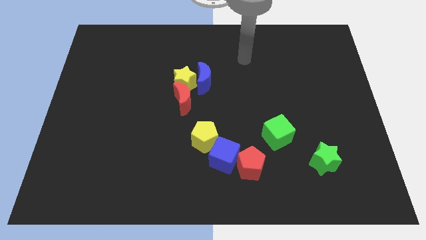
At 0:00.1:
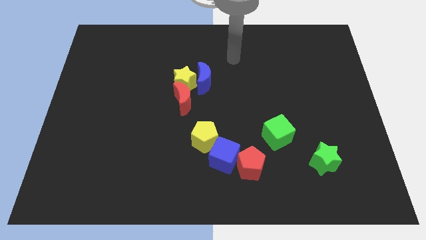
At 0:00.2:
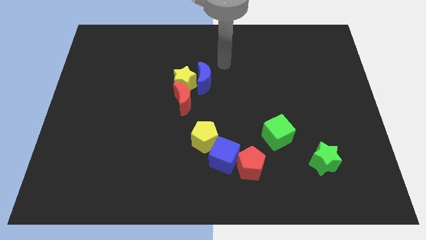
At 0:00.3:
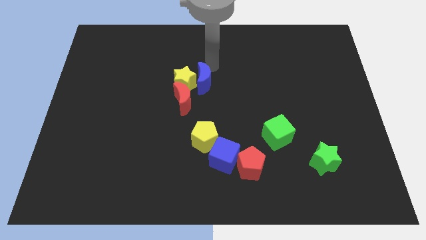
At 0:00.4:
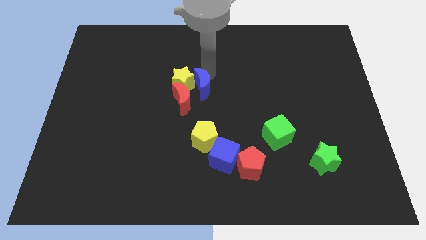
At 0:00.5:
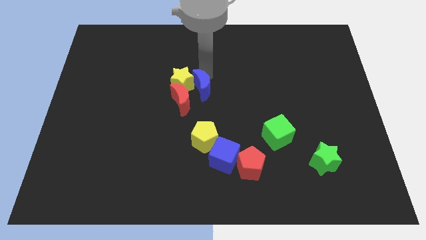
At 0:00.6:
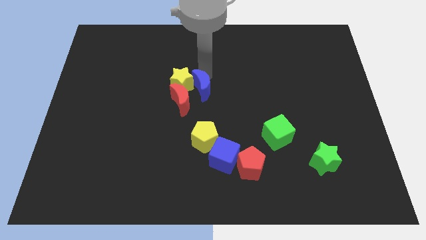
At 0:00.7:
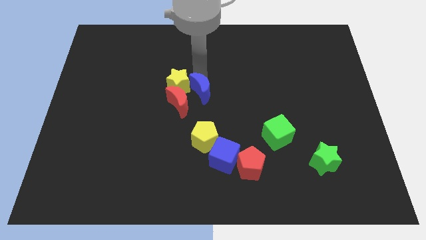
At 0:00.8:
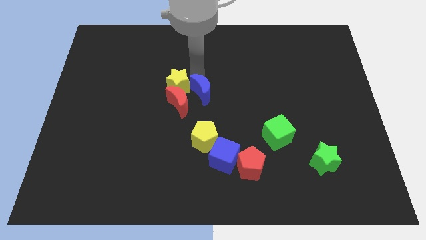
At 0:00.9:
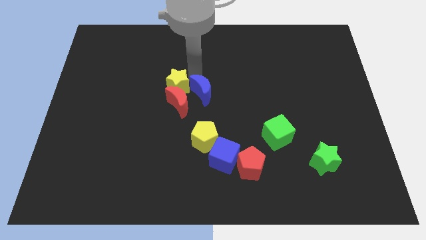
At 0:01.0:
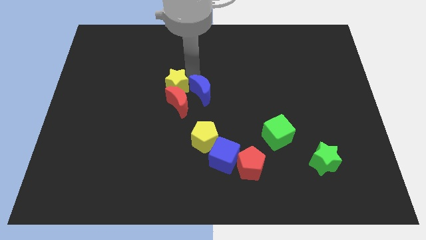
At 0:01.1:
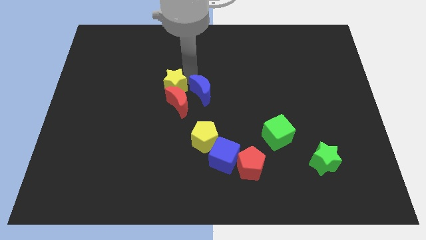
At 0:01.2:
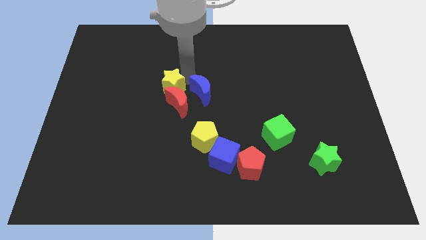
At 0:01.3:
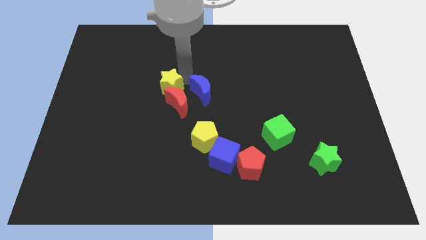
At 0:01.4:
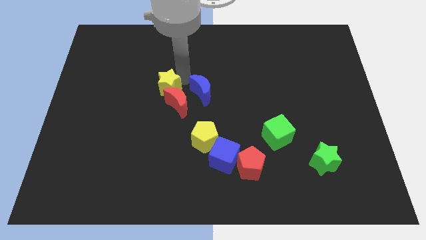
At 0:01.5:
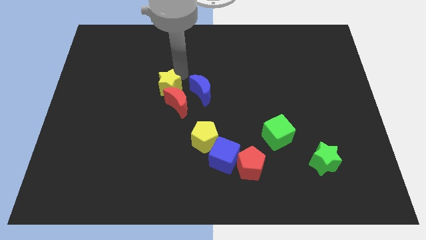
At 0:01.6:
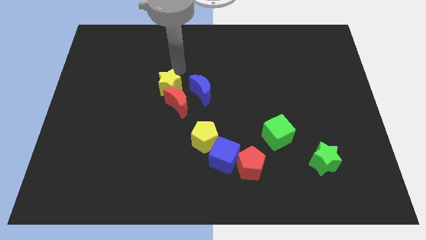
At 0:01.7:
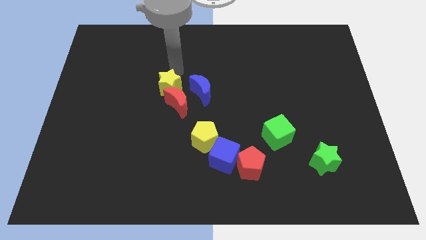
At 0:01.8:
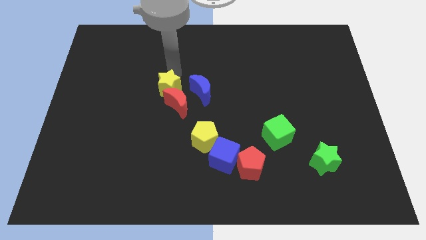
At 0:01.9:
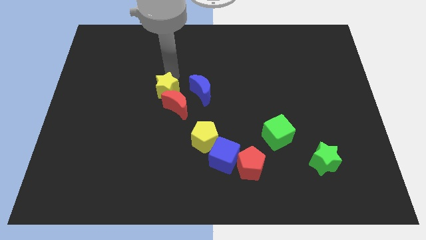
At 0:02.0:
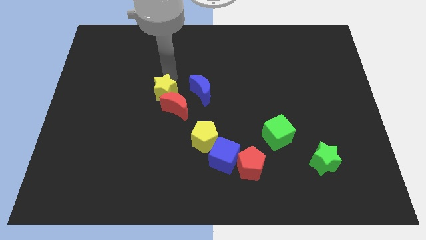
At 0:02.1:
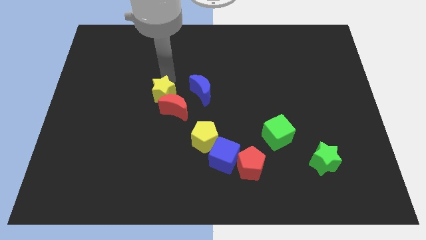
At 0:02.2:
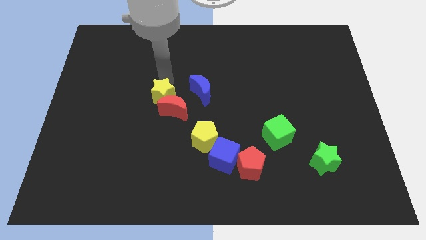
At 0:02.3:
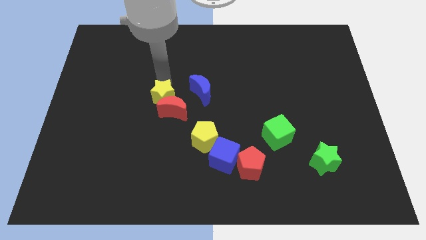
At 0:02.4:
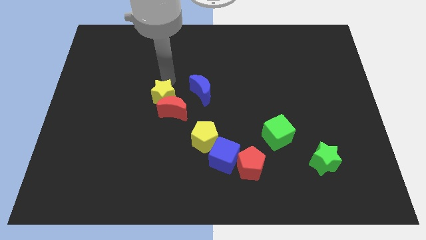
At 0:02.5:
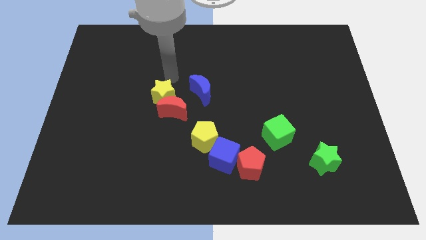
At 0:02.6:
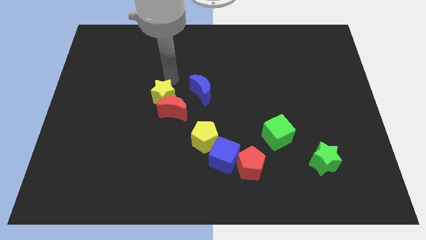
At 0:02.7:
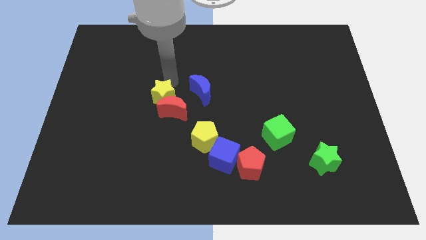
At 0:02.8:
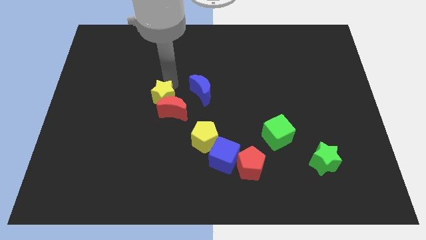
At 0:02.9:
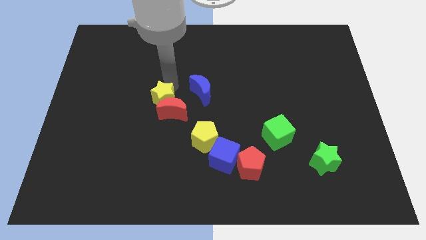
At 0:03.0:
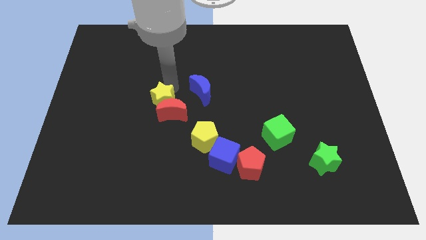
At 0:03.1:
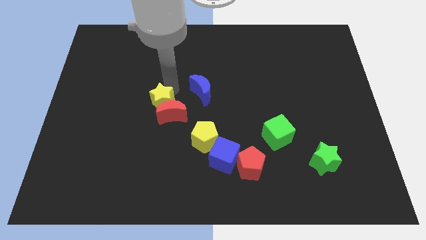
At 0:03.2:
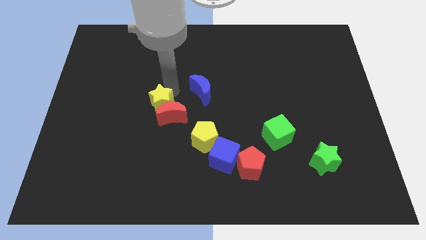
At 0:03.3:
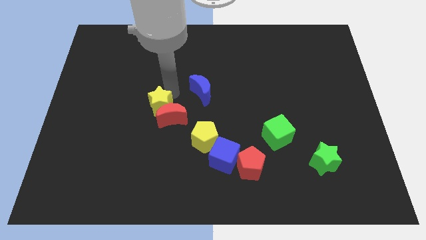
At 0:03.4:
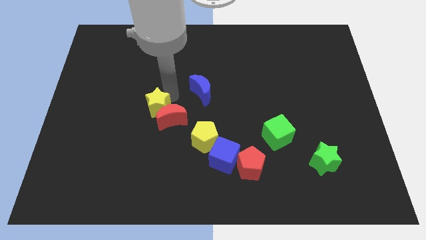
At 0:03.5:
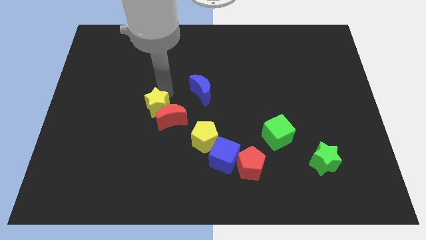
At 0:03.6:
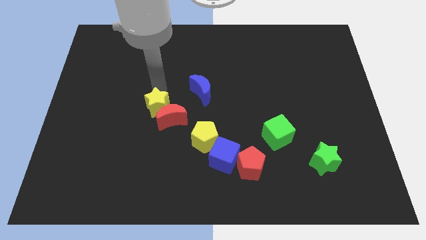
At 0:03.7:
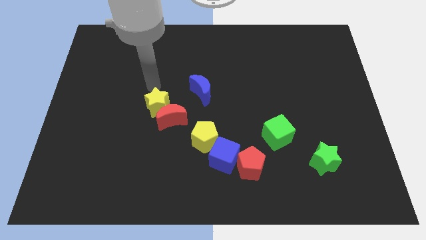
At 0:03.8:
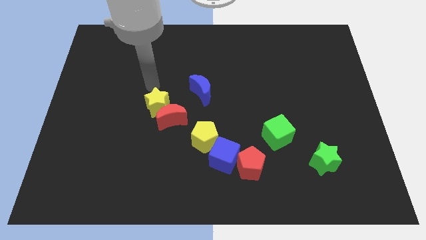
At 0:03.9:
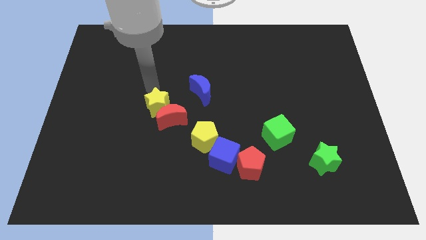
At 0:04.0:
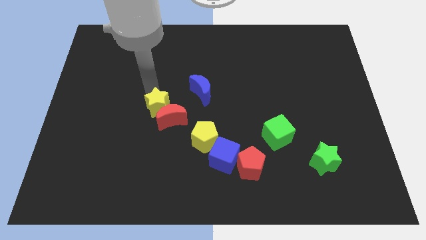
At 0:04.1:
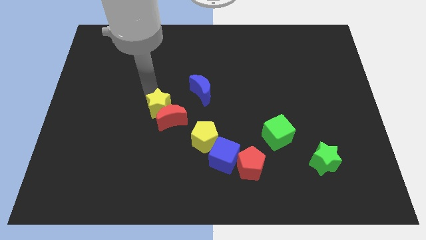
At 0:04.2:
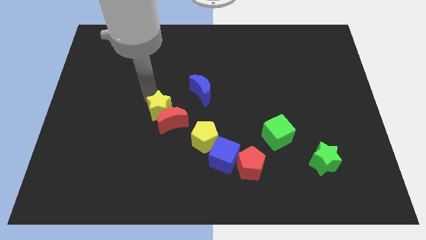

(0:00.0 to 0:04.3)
slightly move the yellow star down

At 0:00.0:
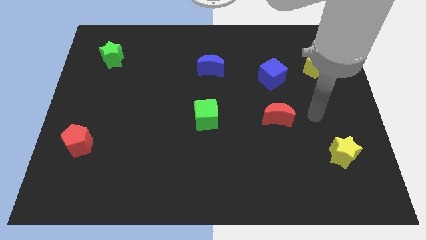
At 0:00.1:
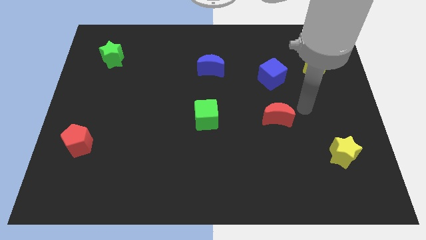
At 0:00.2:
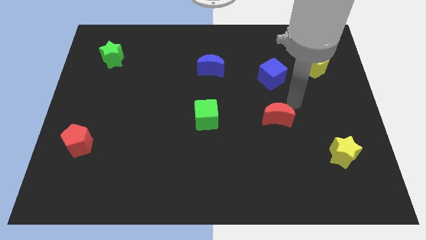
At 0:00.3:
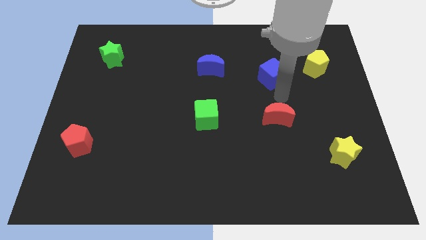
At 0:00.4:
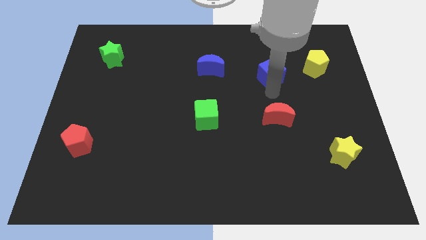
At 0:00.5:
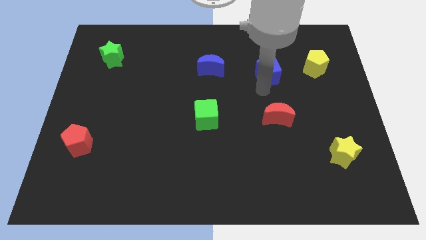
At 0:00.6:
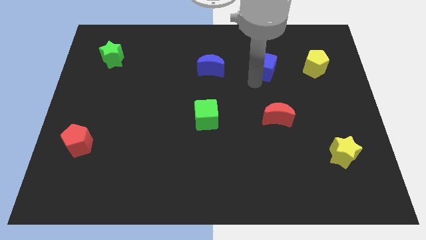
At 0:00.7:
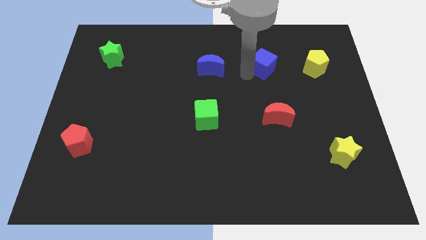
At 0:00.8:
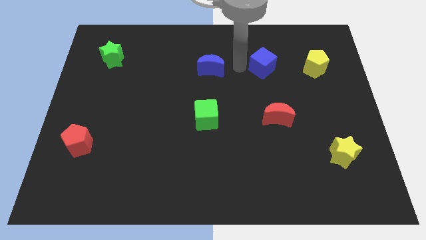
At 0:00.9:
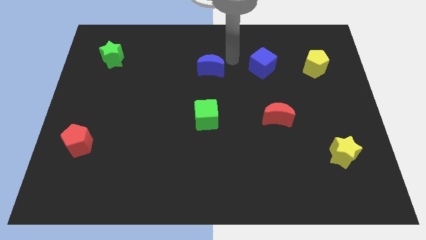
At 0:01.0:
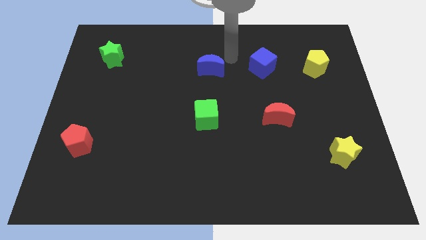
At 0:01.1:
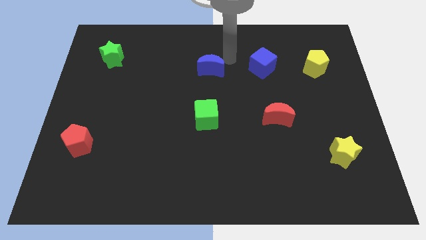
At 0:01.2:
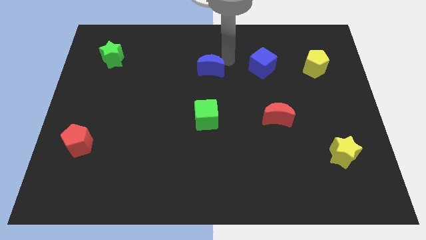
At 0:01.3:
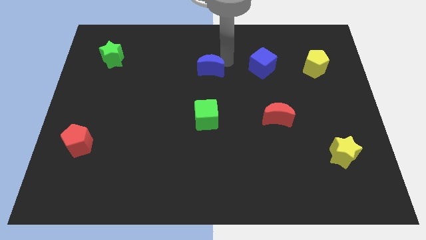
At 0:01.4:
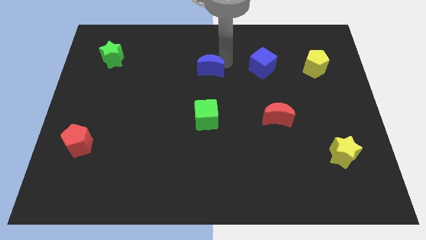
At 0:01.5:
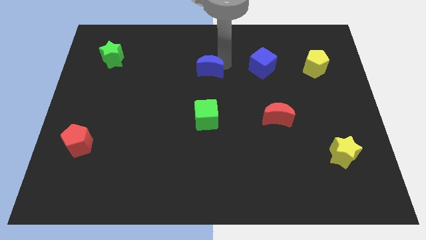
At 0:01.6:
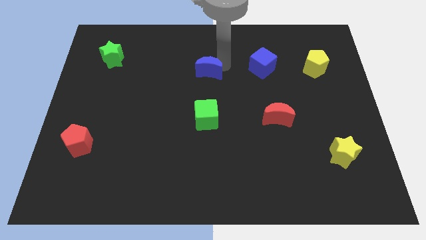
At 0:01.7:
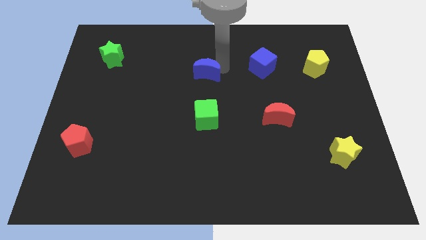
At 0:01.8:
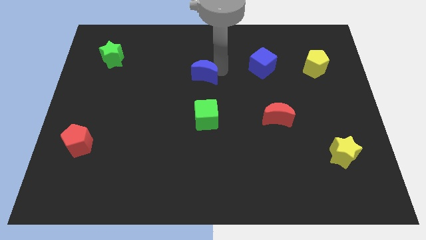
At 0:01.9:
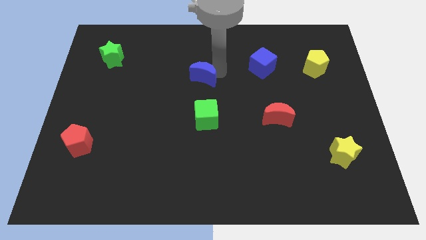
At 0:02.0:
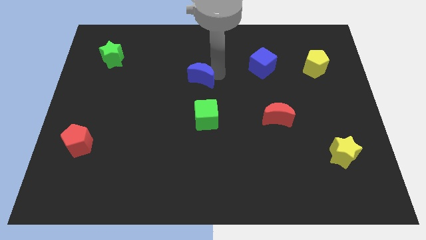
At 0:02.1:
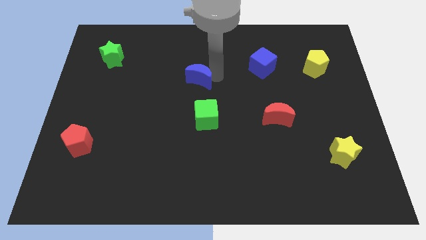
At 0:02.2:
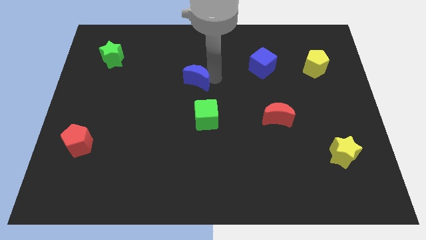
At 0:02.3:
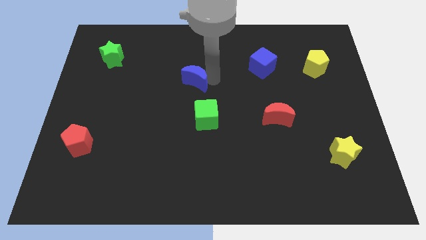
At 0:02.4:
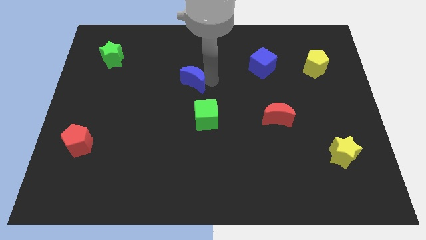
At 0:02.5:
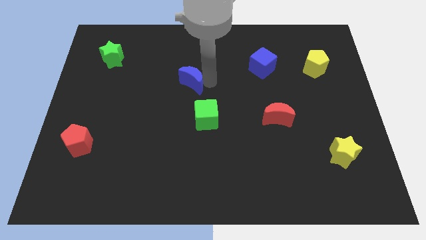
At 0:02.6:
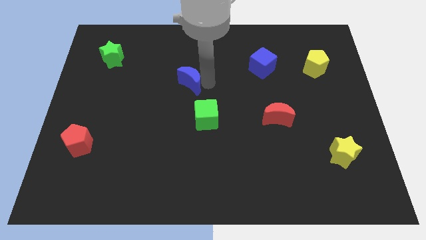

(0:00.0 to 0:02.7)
slide the blue moon somewhat diagonally down and to the left

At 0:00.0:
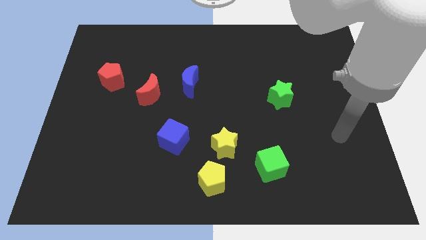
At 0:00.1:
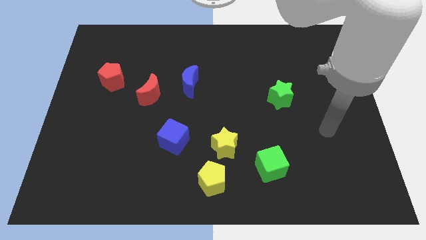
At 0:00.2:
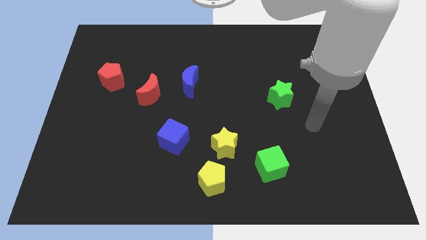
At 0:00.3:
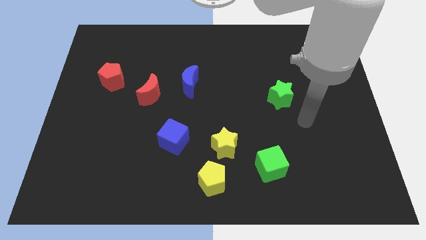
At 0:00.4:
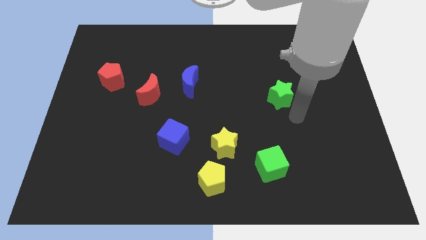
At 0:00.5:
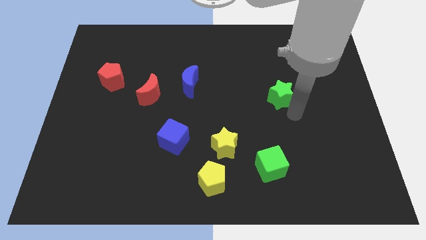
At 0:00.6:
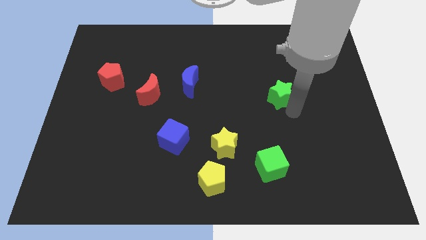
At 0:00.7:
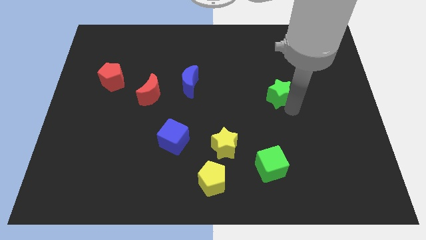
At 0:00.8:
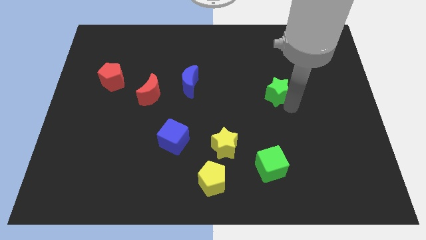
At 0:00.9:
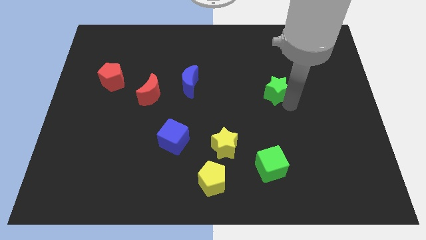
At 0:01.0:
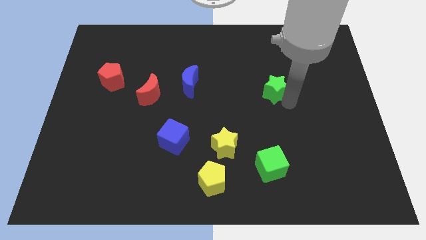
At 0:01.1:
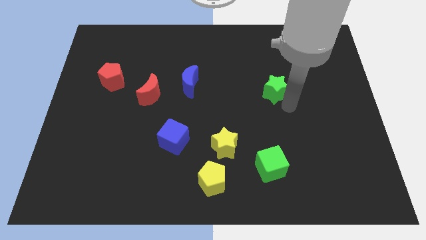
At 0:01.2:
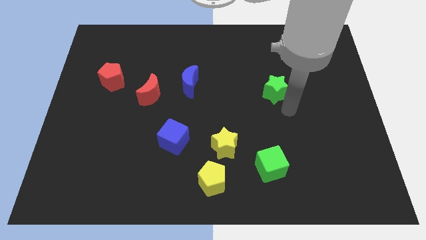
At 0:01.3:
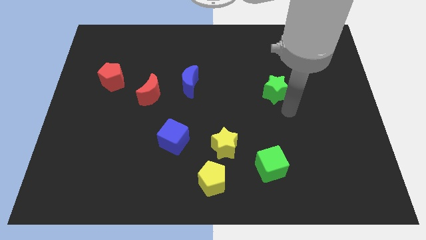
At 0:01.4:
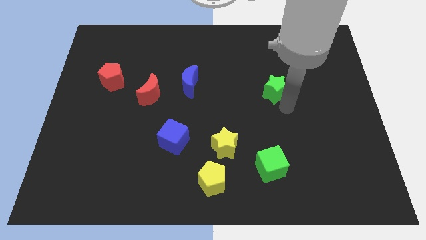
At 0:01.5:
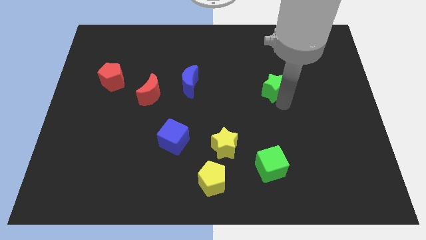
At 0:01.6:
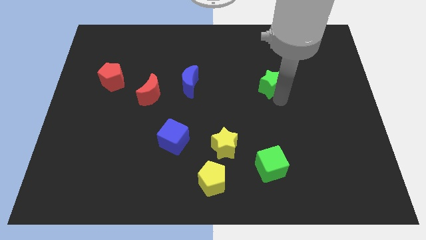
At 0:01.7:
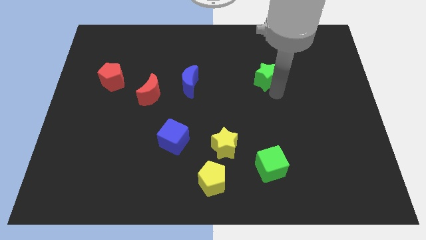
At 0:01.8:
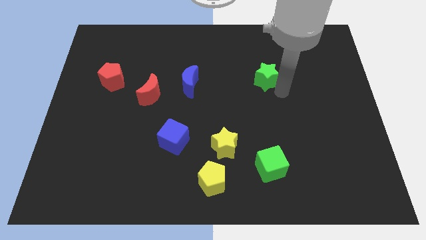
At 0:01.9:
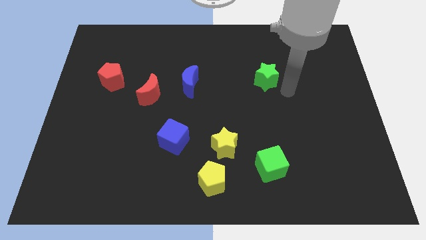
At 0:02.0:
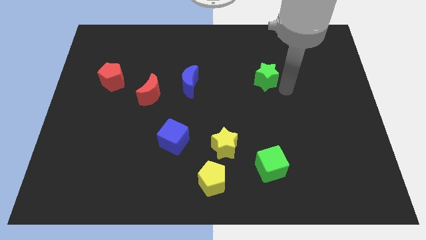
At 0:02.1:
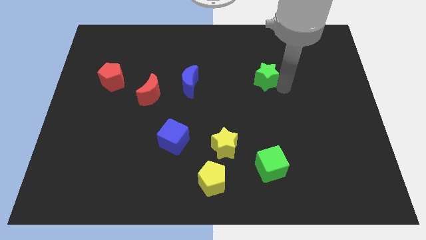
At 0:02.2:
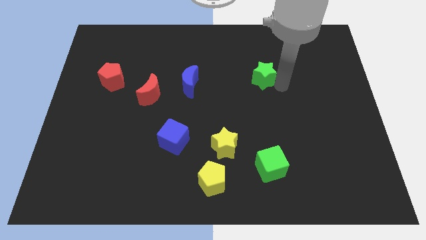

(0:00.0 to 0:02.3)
slide the green star upwards and left slightly
